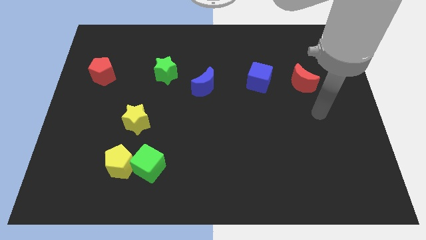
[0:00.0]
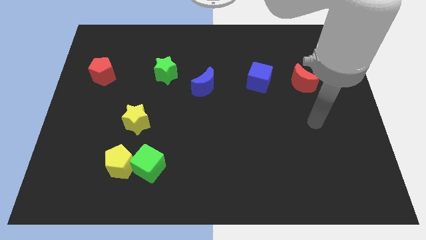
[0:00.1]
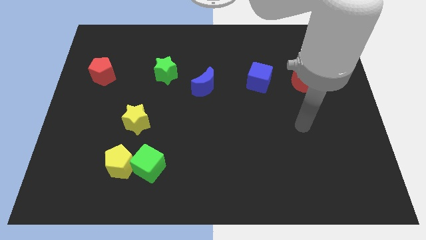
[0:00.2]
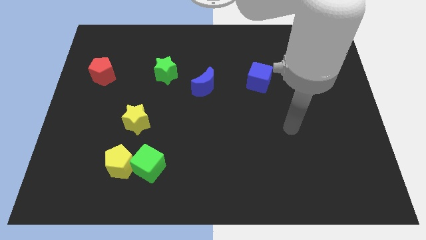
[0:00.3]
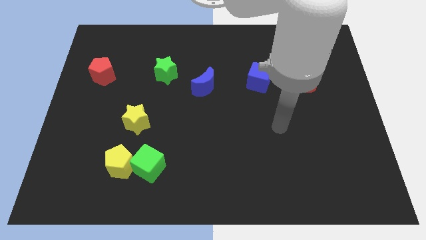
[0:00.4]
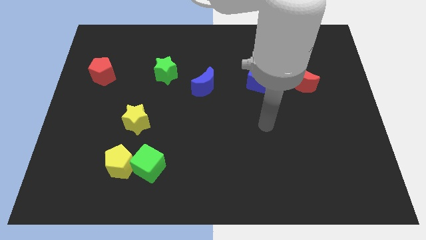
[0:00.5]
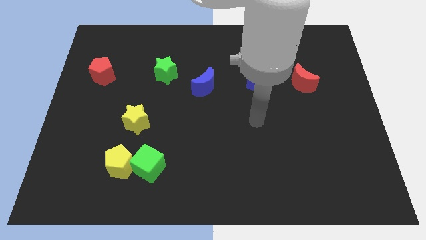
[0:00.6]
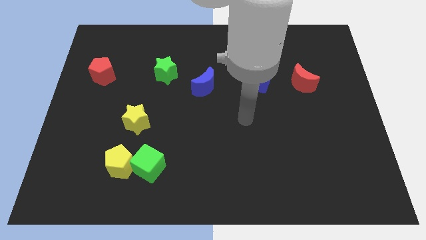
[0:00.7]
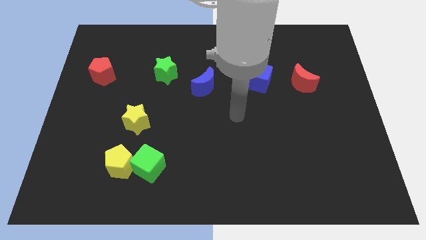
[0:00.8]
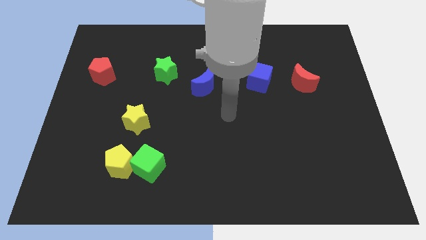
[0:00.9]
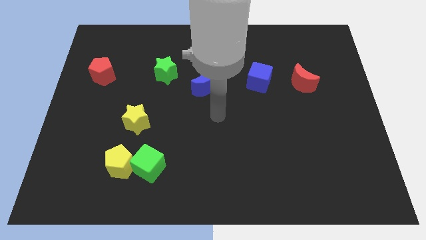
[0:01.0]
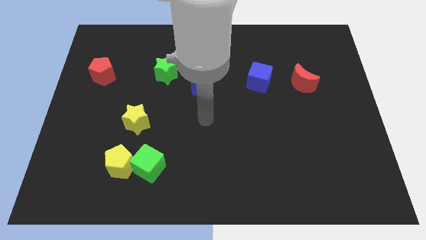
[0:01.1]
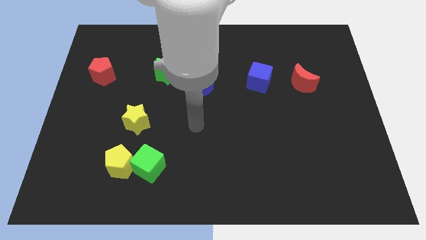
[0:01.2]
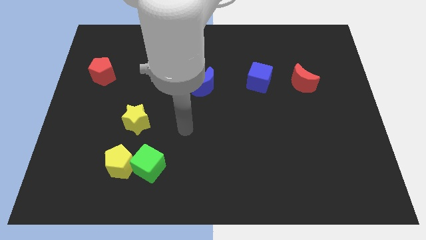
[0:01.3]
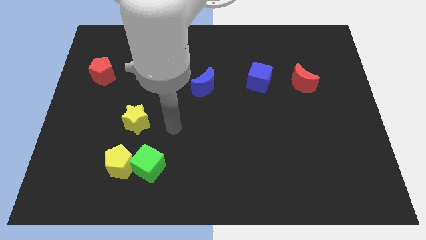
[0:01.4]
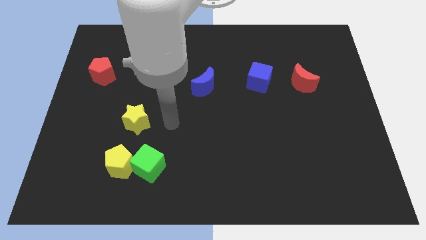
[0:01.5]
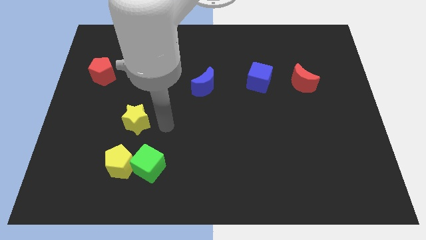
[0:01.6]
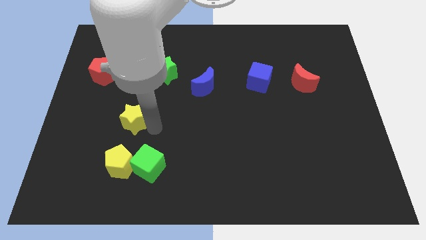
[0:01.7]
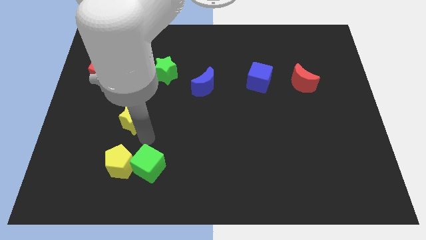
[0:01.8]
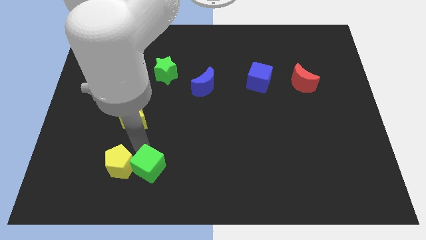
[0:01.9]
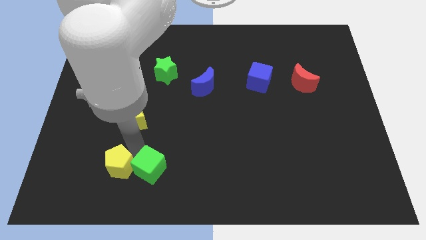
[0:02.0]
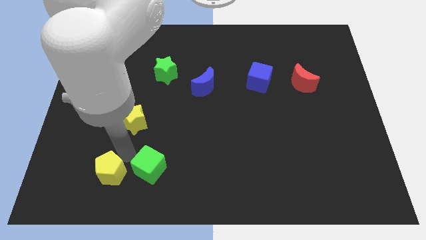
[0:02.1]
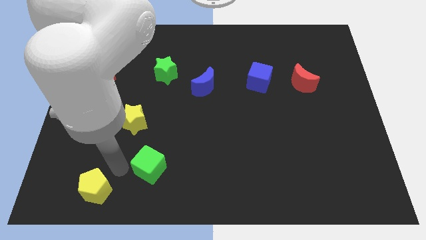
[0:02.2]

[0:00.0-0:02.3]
pull the green cube apart from the yellow pentagon

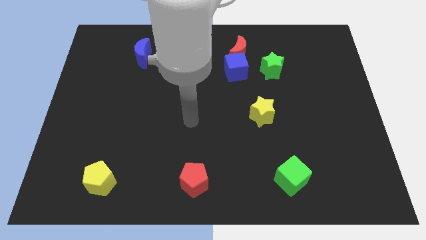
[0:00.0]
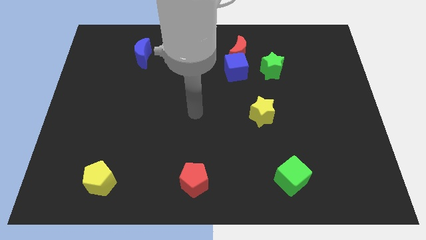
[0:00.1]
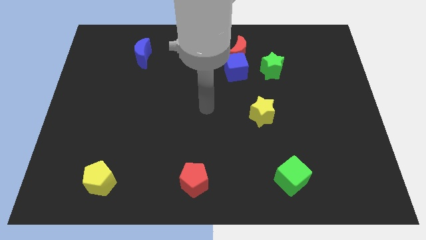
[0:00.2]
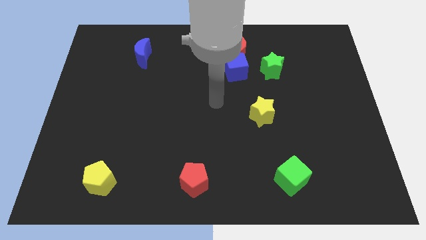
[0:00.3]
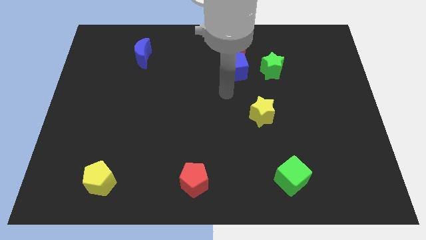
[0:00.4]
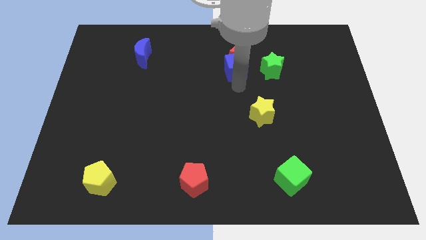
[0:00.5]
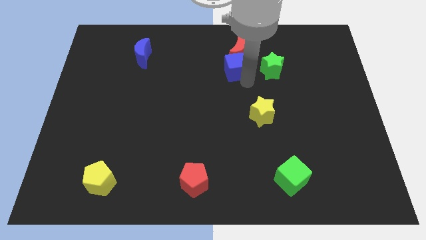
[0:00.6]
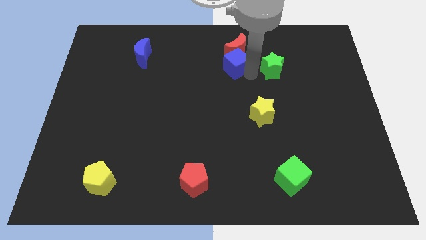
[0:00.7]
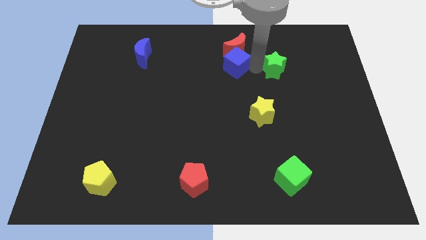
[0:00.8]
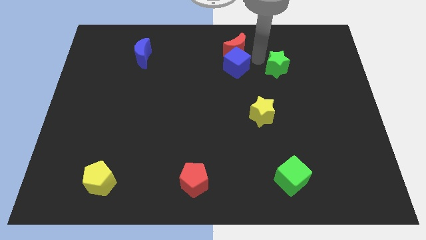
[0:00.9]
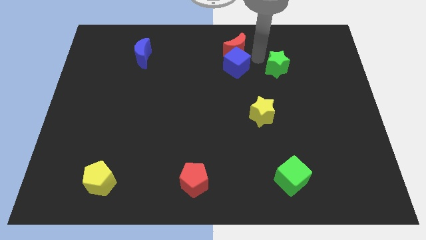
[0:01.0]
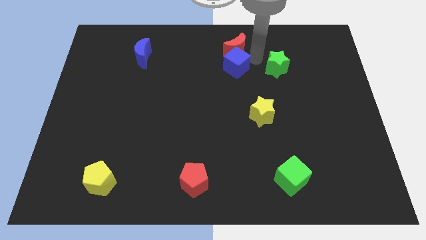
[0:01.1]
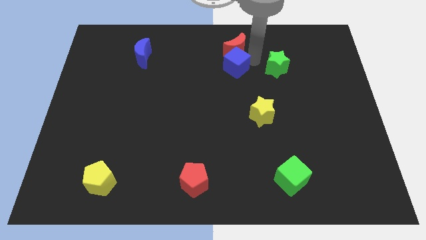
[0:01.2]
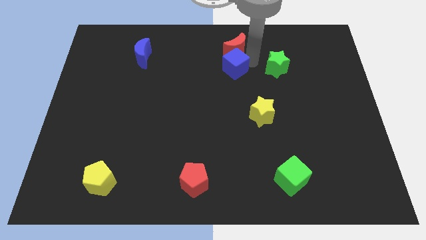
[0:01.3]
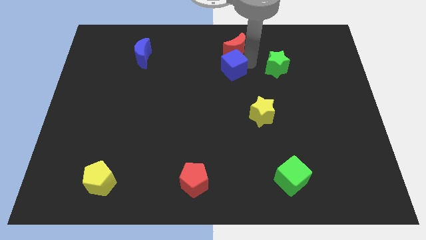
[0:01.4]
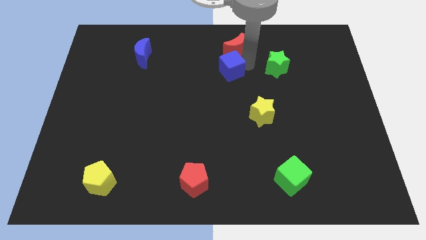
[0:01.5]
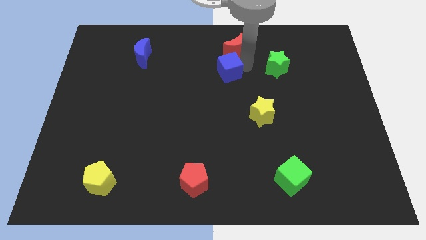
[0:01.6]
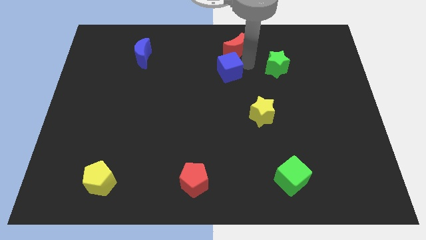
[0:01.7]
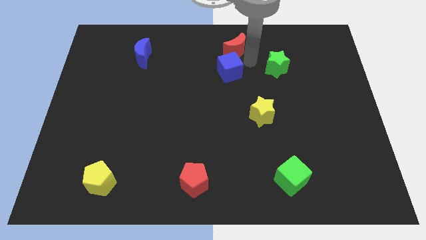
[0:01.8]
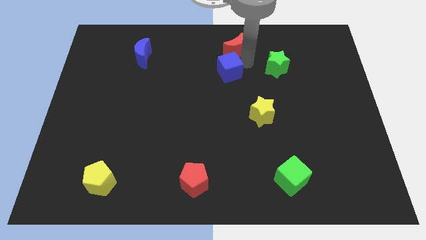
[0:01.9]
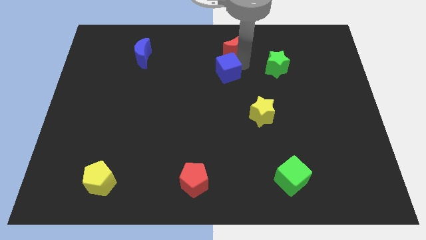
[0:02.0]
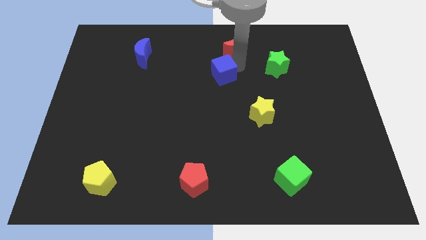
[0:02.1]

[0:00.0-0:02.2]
move the blue cube away from the red moon and green star

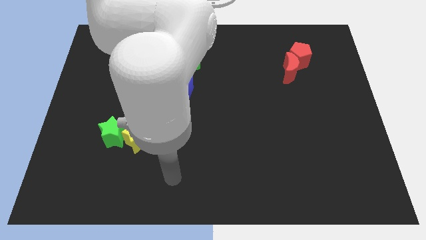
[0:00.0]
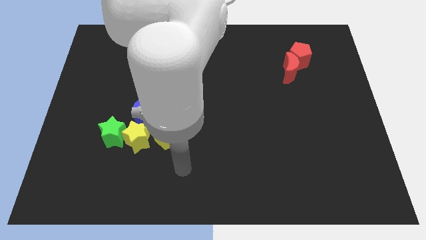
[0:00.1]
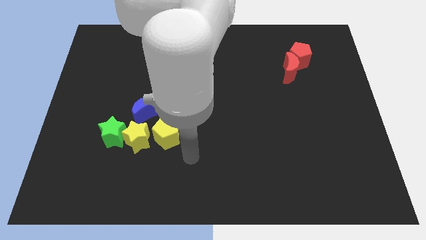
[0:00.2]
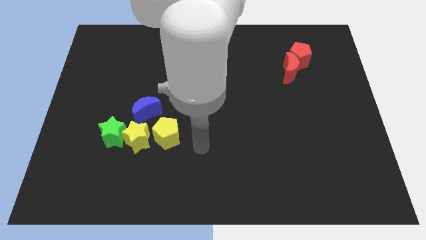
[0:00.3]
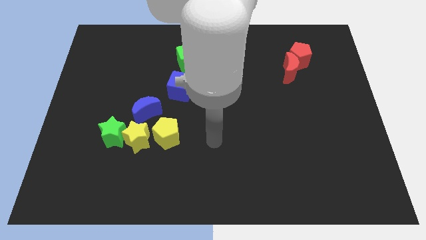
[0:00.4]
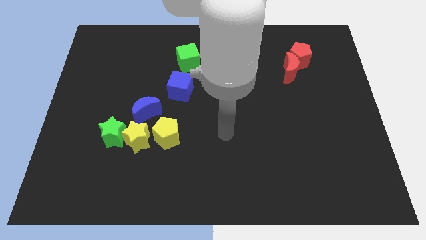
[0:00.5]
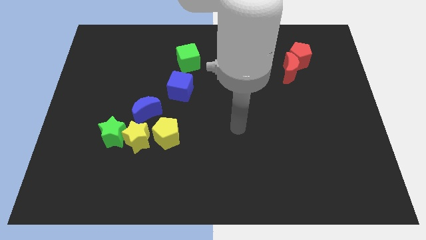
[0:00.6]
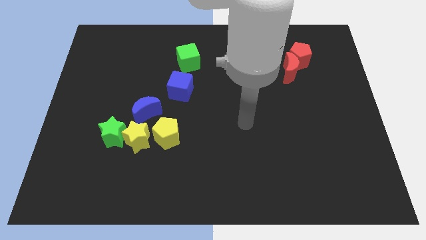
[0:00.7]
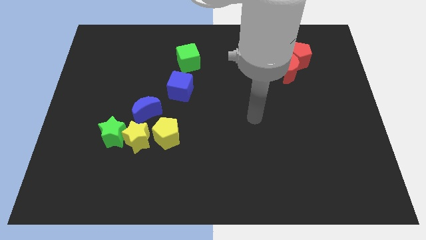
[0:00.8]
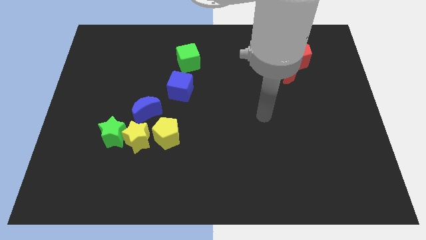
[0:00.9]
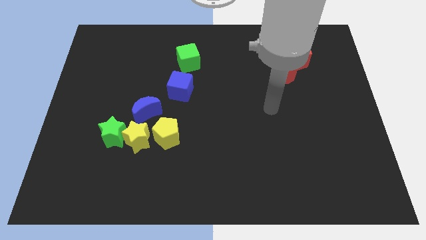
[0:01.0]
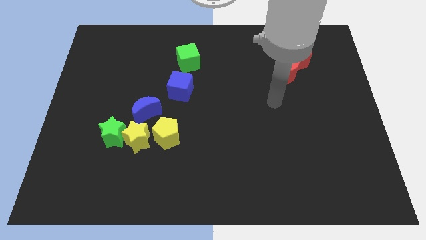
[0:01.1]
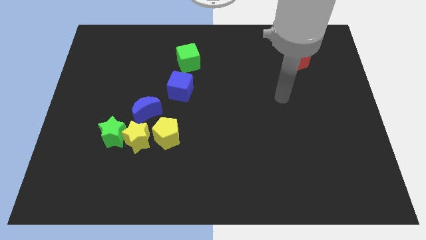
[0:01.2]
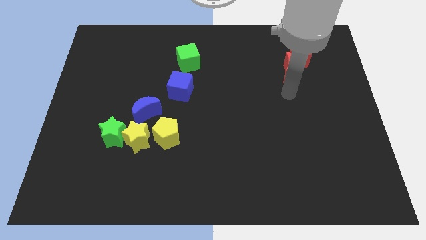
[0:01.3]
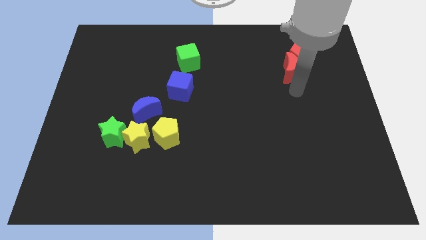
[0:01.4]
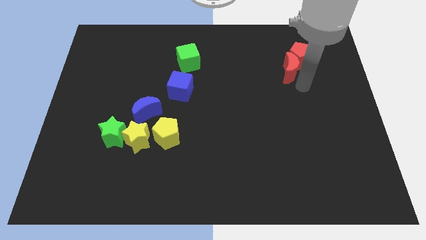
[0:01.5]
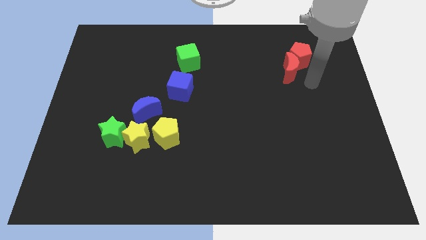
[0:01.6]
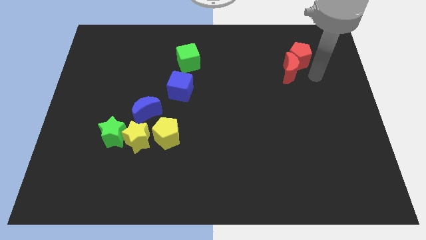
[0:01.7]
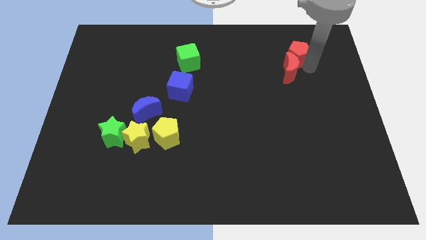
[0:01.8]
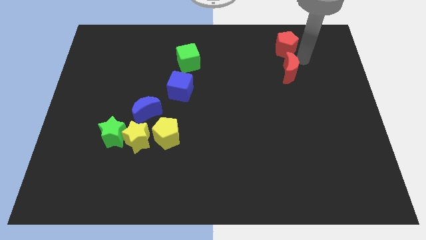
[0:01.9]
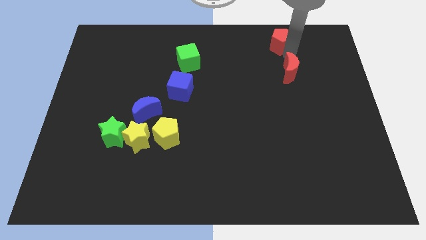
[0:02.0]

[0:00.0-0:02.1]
move the red moon away from the red pentagon

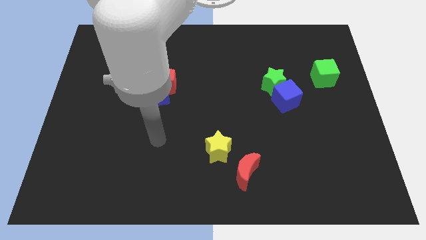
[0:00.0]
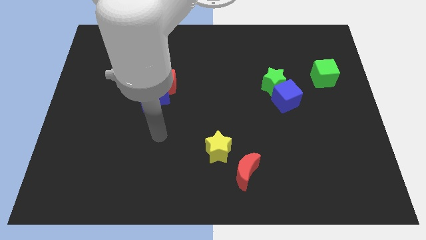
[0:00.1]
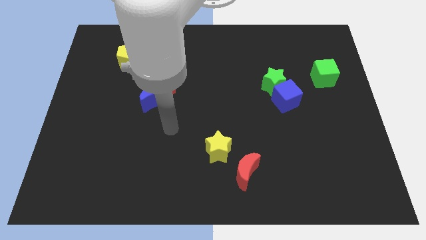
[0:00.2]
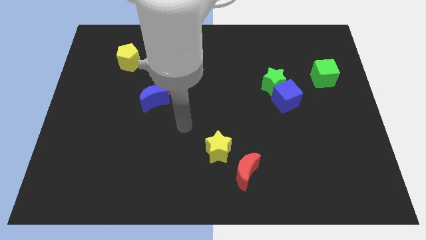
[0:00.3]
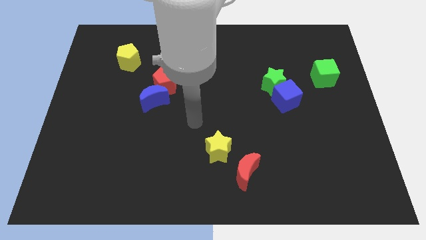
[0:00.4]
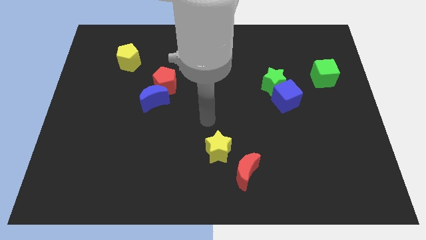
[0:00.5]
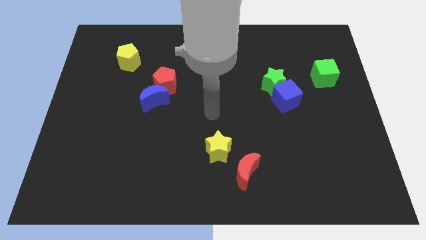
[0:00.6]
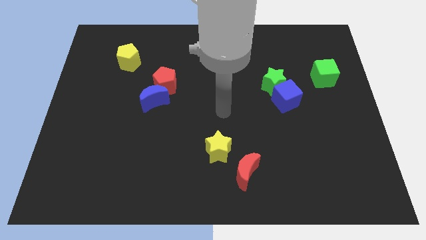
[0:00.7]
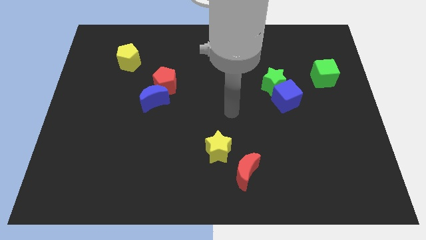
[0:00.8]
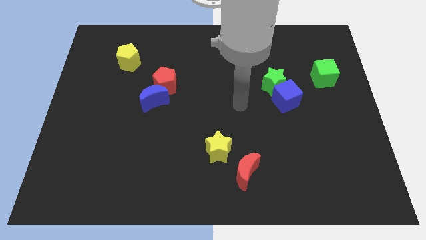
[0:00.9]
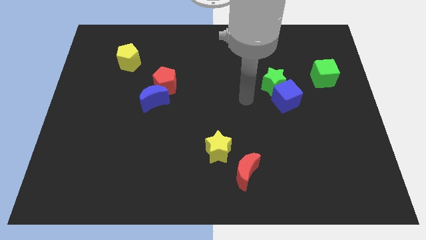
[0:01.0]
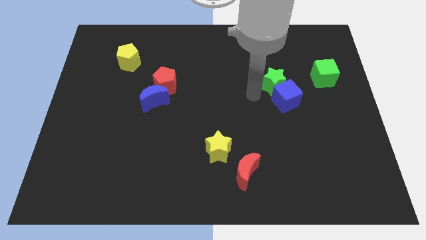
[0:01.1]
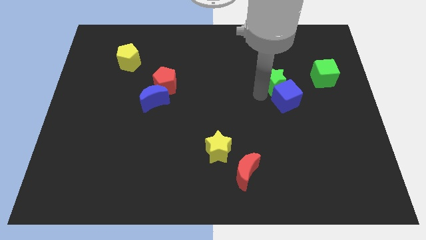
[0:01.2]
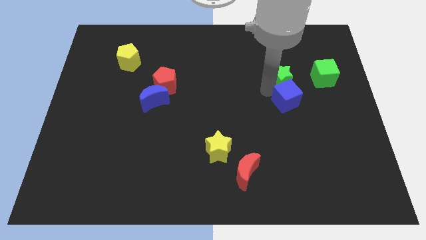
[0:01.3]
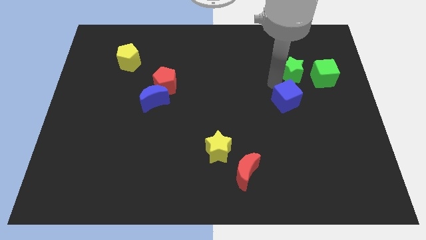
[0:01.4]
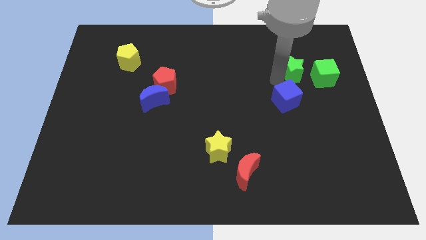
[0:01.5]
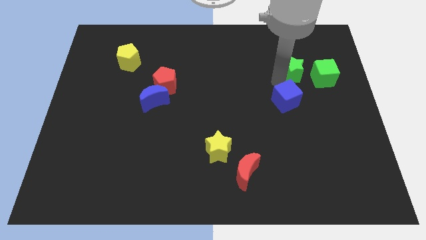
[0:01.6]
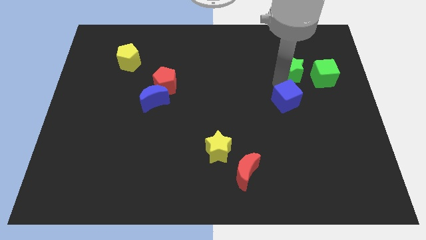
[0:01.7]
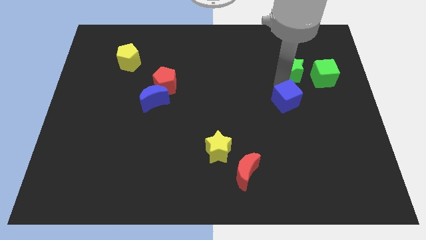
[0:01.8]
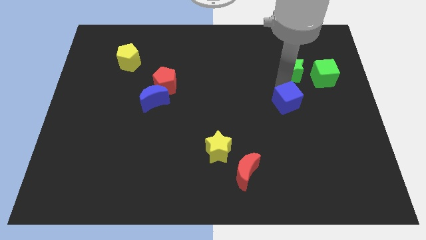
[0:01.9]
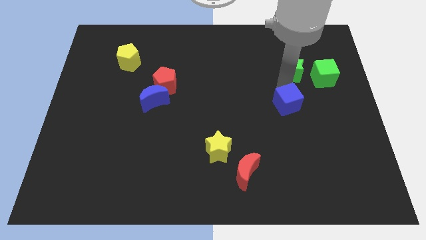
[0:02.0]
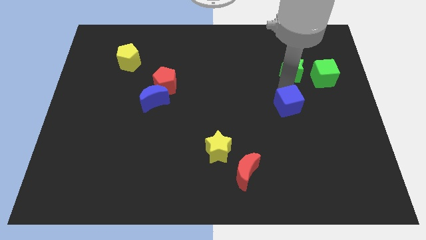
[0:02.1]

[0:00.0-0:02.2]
move the blue cube away from the green star

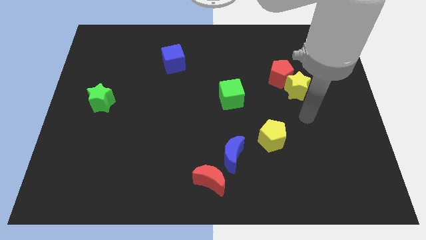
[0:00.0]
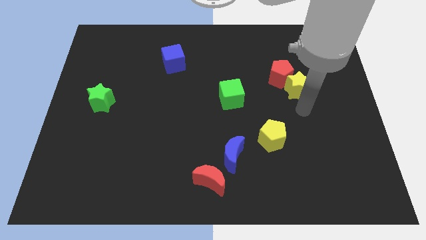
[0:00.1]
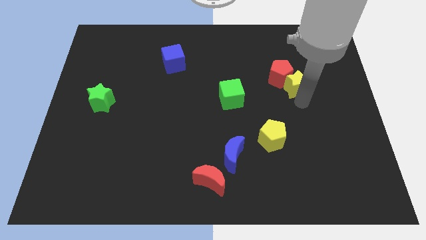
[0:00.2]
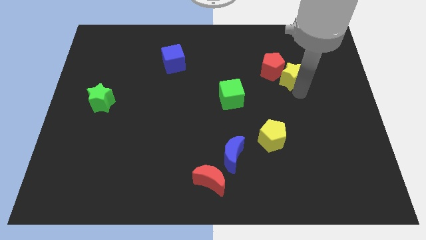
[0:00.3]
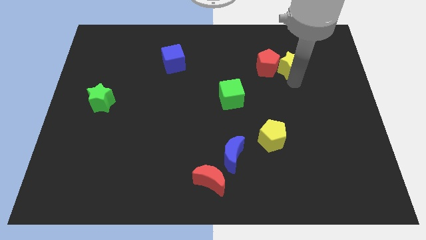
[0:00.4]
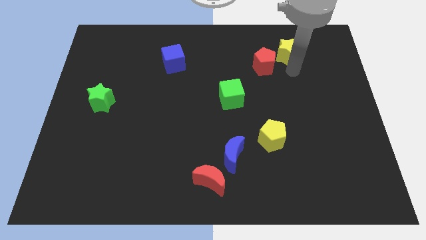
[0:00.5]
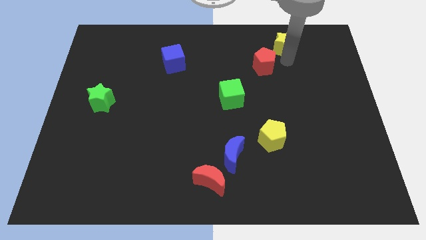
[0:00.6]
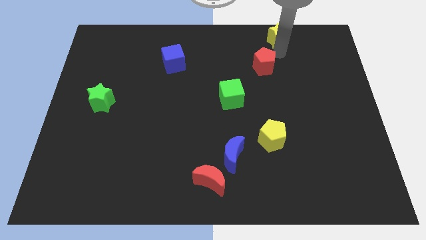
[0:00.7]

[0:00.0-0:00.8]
pull the red pentagon apart from the yellow star
